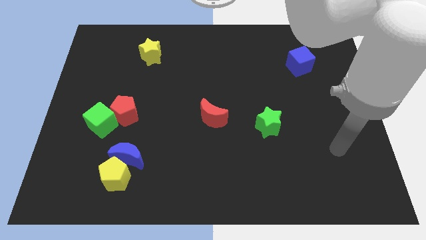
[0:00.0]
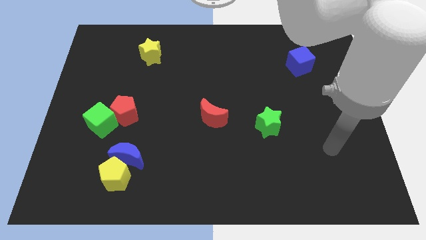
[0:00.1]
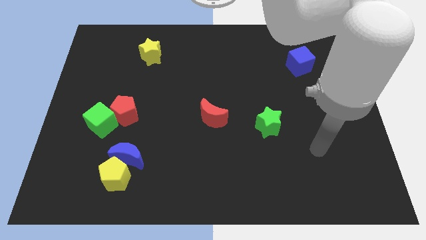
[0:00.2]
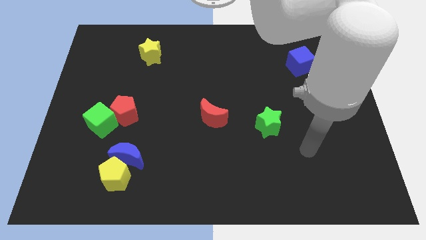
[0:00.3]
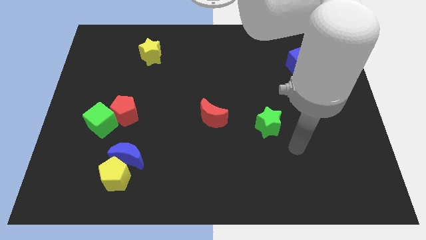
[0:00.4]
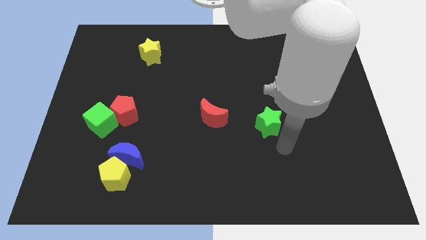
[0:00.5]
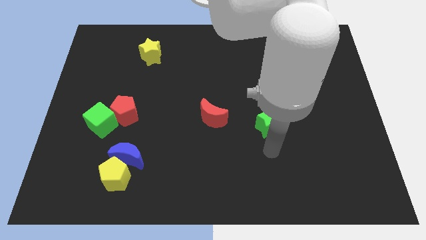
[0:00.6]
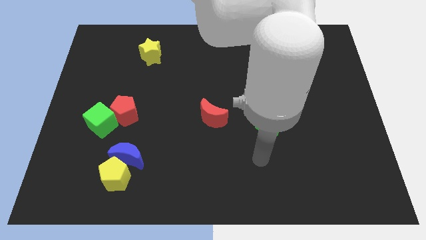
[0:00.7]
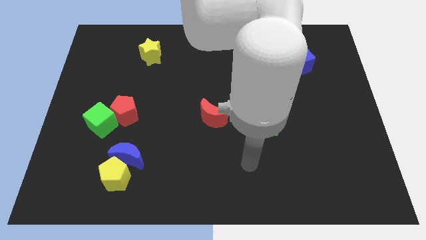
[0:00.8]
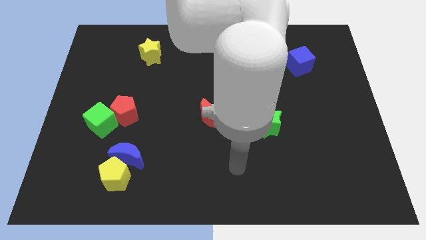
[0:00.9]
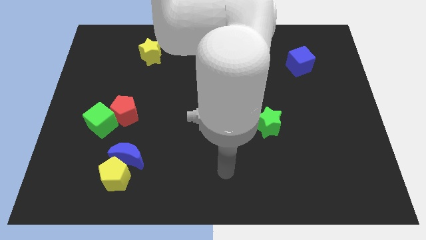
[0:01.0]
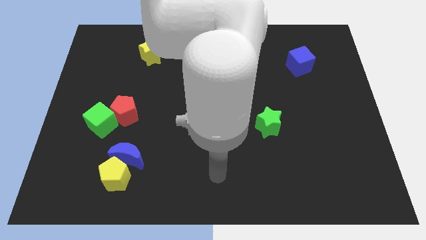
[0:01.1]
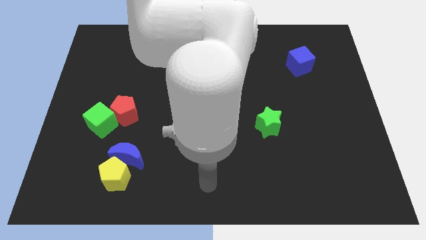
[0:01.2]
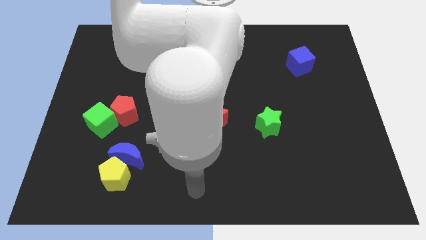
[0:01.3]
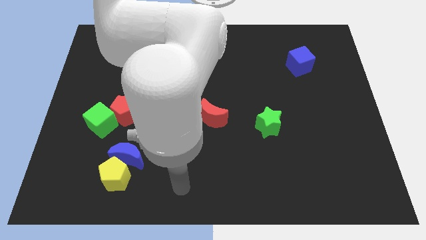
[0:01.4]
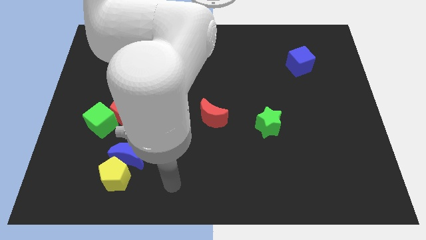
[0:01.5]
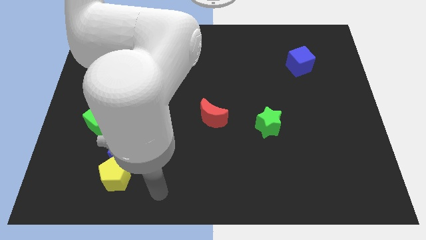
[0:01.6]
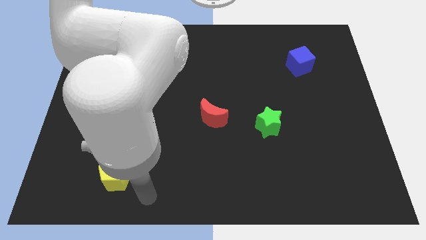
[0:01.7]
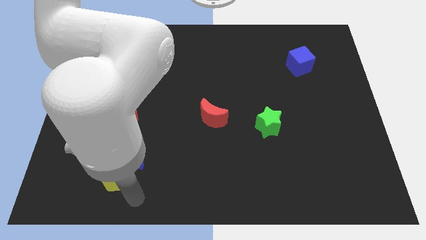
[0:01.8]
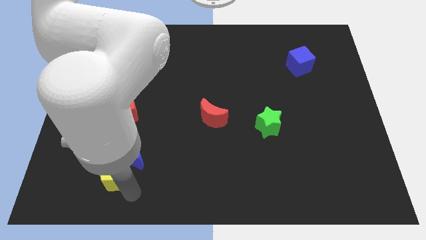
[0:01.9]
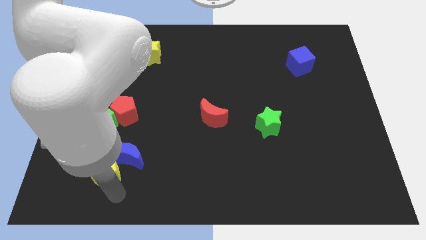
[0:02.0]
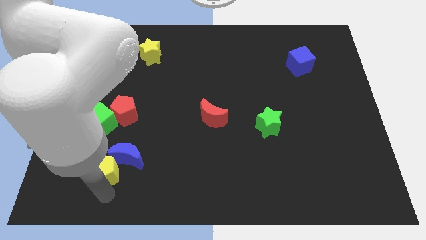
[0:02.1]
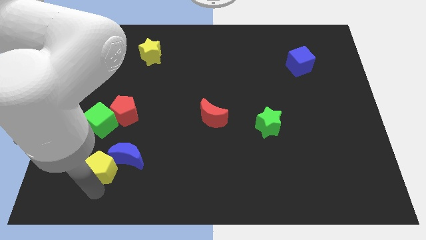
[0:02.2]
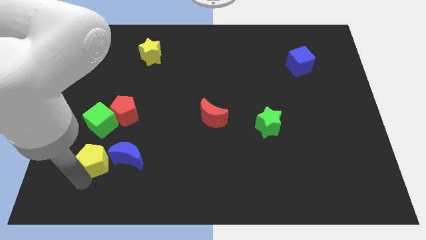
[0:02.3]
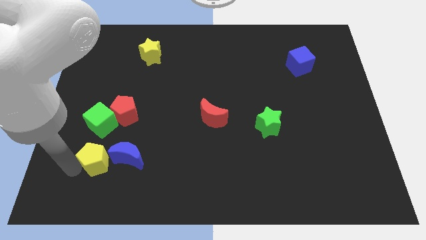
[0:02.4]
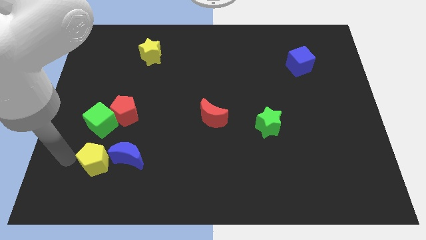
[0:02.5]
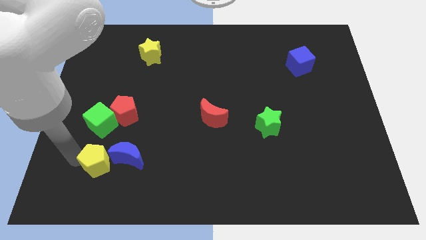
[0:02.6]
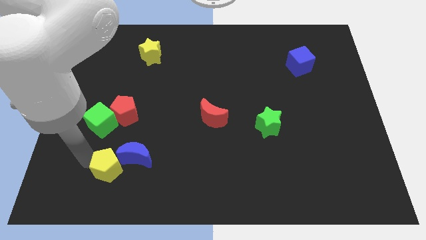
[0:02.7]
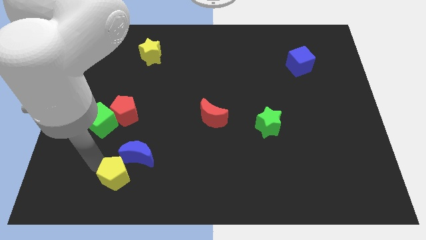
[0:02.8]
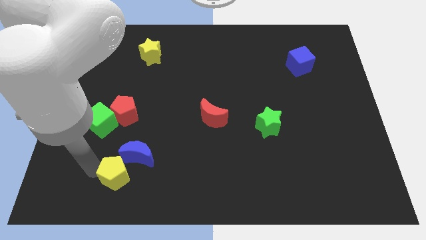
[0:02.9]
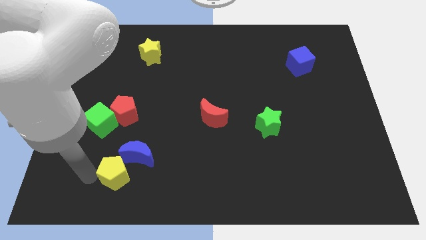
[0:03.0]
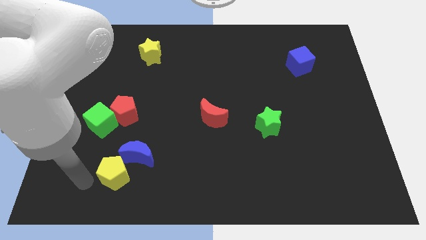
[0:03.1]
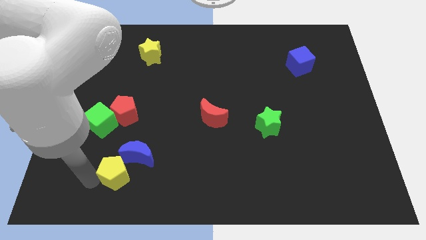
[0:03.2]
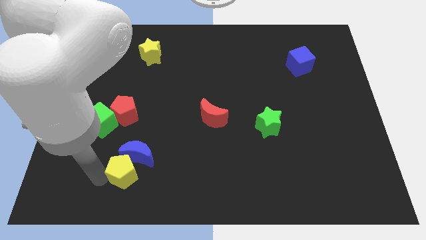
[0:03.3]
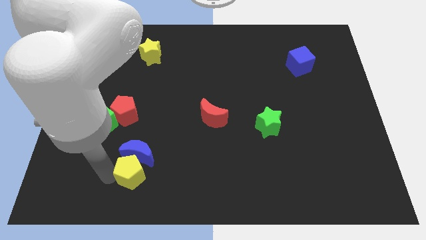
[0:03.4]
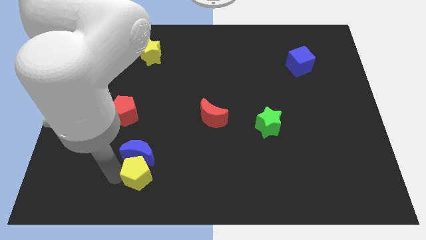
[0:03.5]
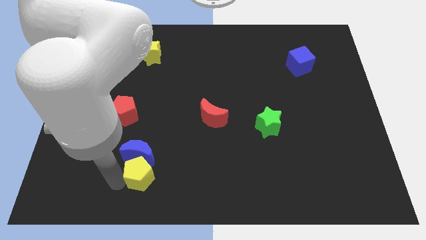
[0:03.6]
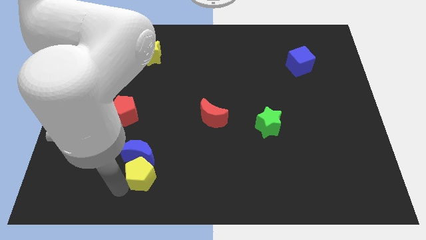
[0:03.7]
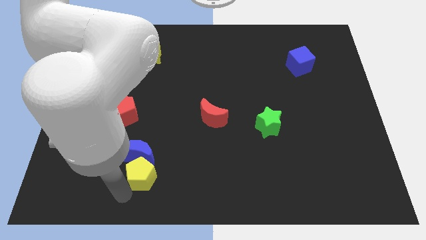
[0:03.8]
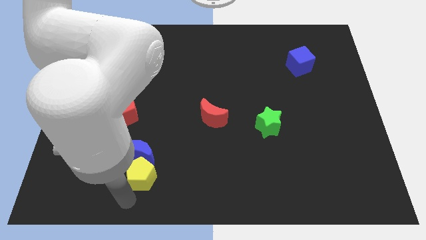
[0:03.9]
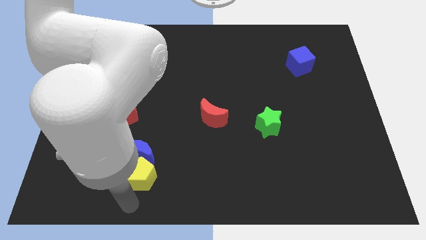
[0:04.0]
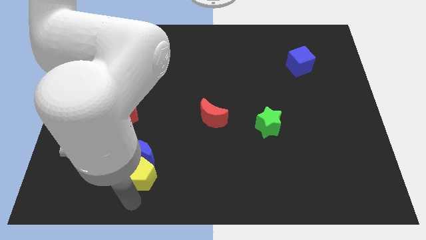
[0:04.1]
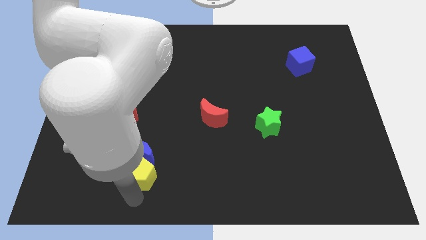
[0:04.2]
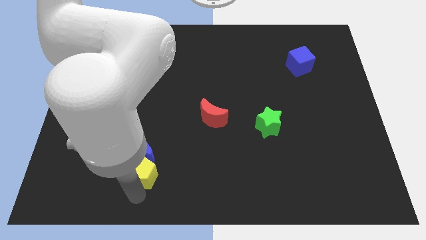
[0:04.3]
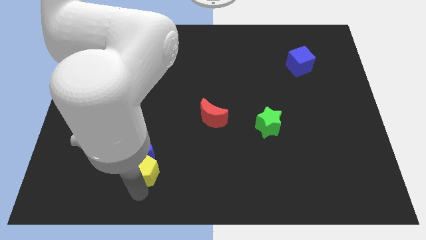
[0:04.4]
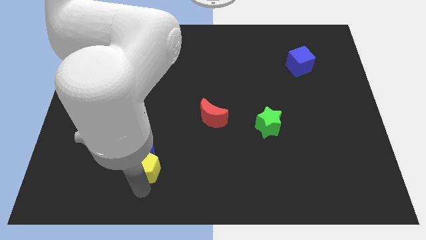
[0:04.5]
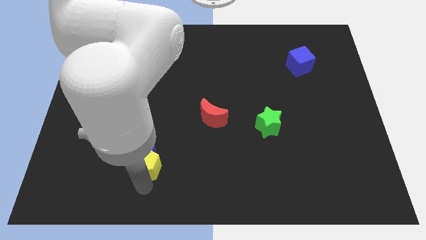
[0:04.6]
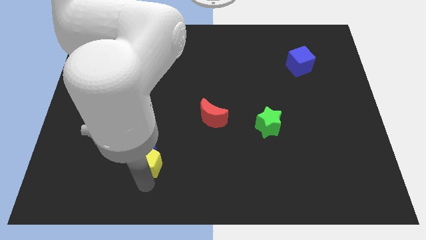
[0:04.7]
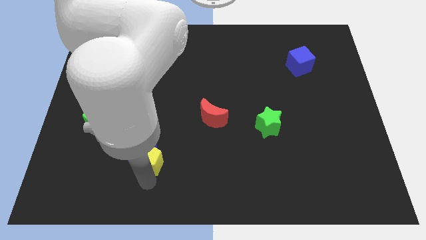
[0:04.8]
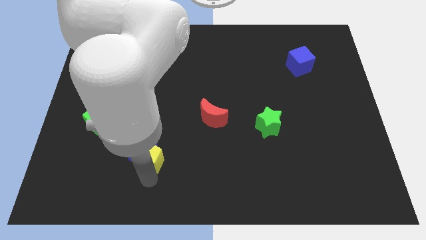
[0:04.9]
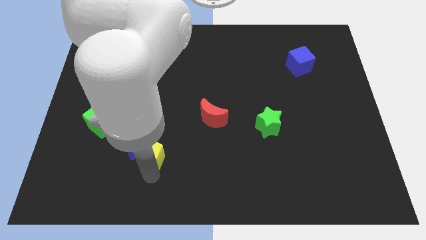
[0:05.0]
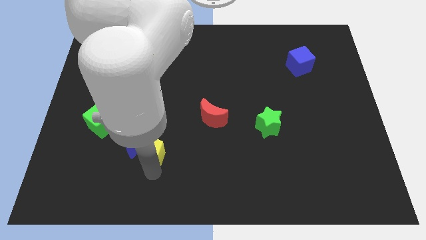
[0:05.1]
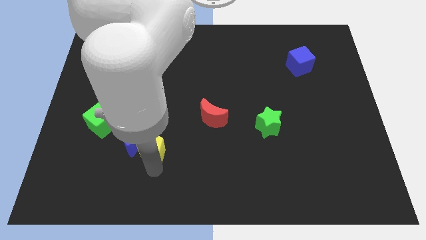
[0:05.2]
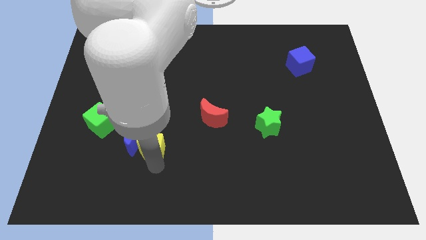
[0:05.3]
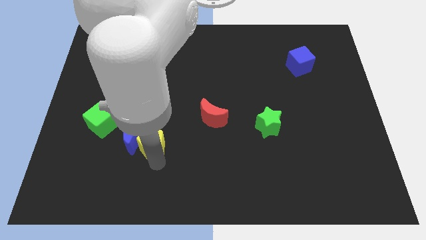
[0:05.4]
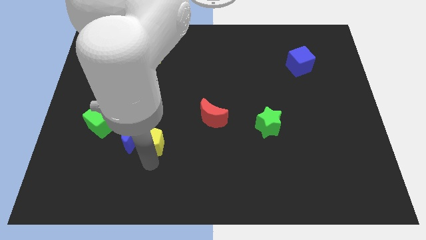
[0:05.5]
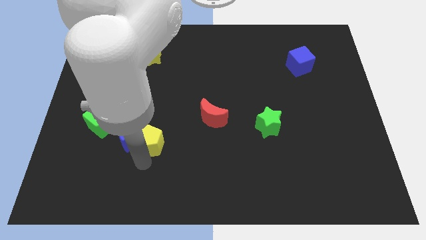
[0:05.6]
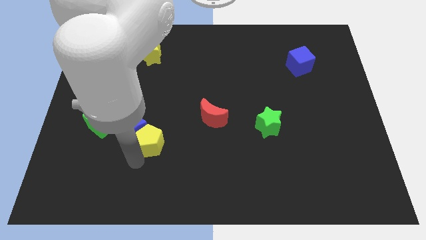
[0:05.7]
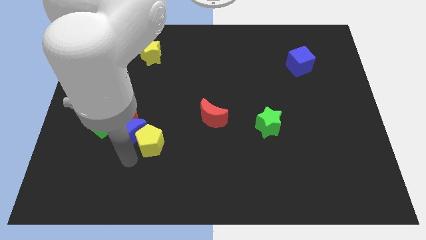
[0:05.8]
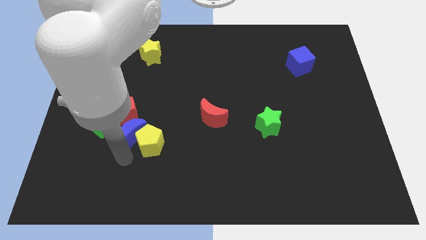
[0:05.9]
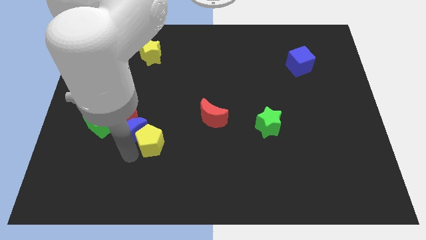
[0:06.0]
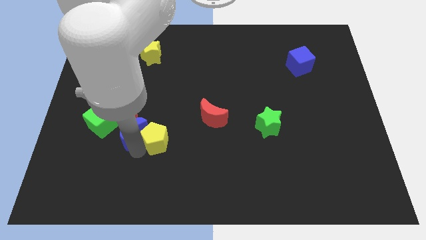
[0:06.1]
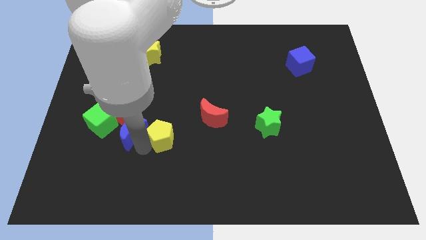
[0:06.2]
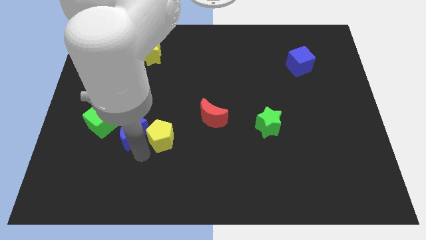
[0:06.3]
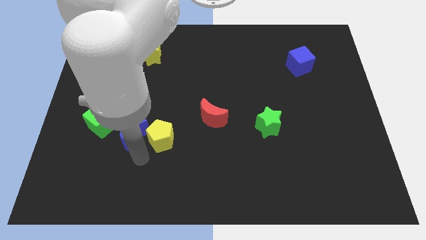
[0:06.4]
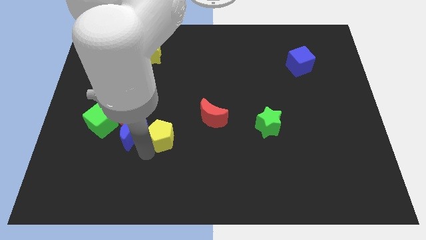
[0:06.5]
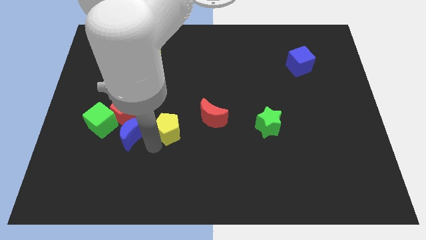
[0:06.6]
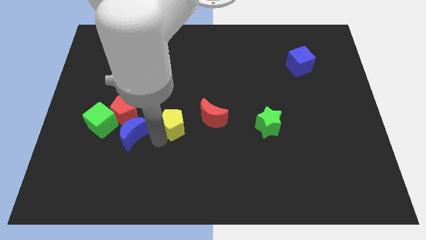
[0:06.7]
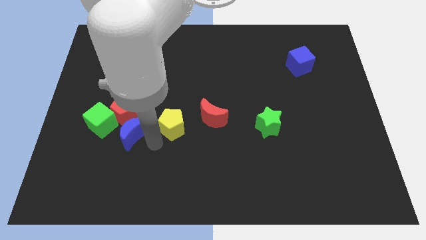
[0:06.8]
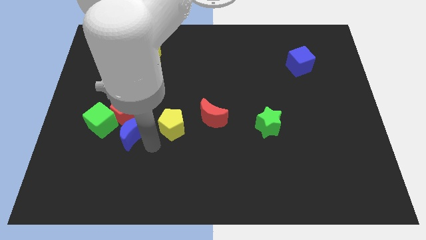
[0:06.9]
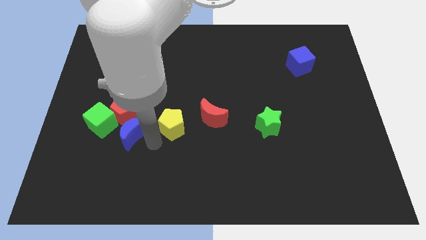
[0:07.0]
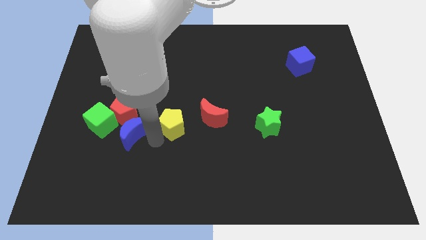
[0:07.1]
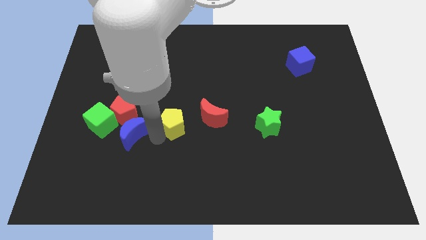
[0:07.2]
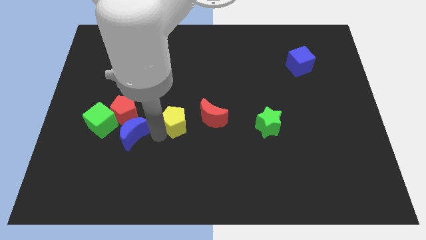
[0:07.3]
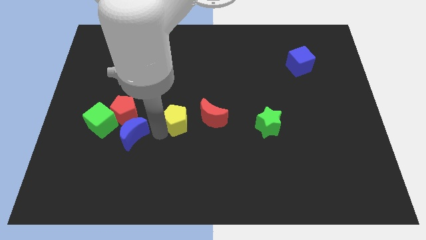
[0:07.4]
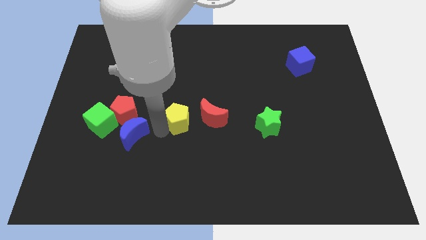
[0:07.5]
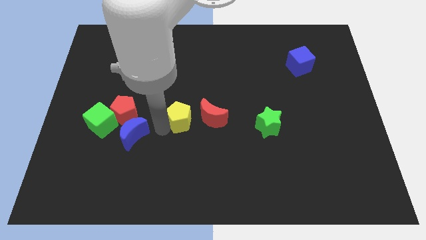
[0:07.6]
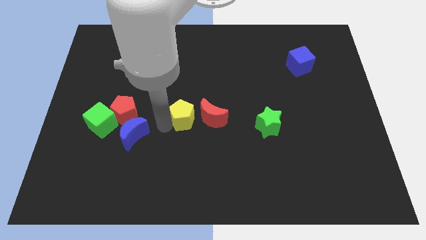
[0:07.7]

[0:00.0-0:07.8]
slide the yellow pentagon upwards and then right
